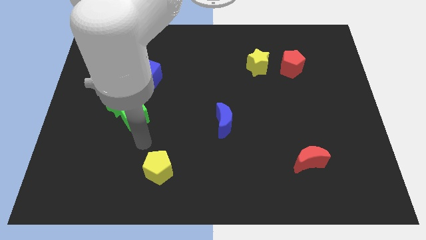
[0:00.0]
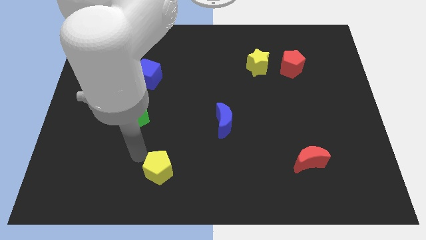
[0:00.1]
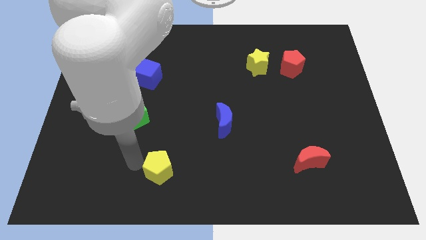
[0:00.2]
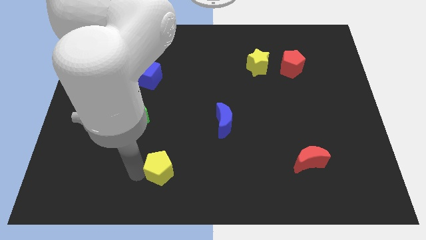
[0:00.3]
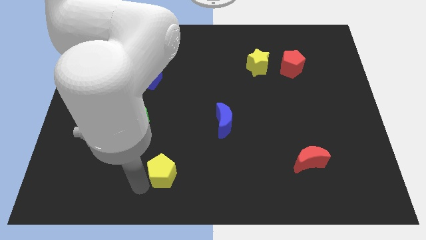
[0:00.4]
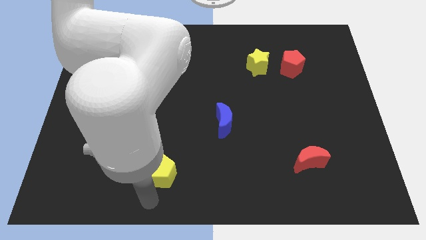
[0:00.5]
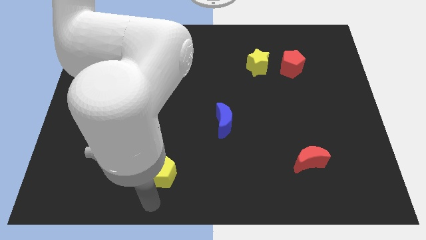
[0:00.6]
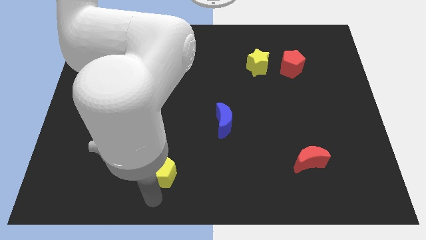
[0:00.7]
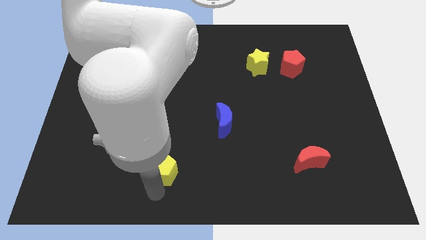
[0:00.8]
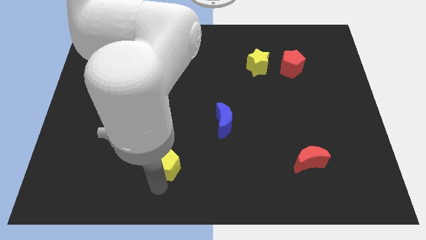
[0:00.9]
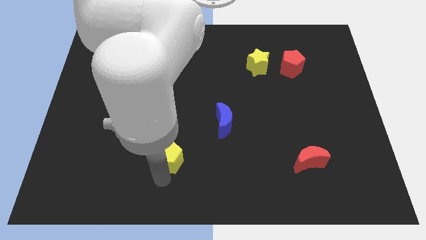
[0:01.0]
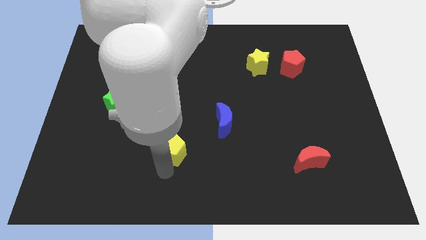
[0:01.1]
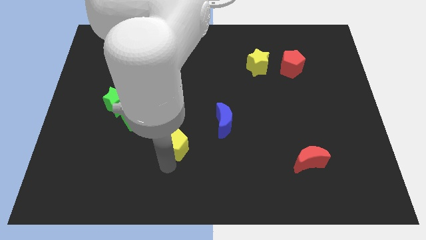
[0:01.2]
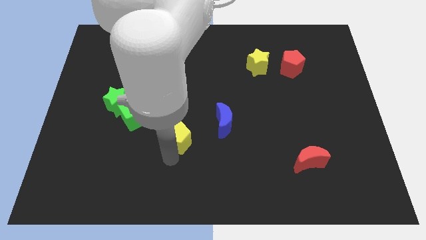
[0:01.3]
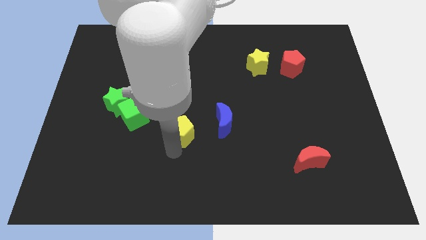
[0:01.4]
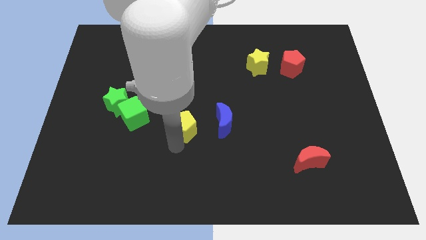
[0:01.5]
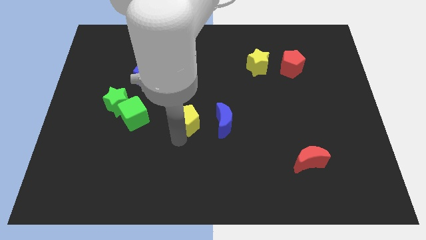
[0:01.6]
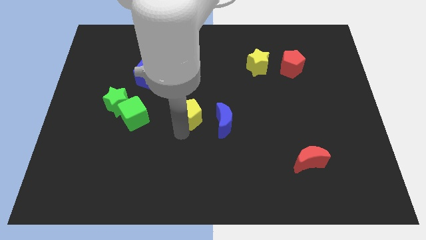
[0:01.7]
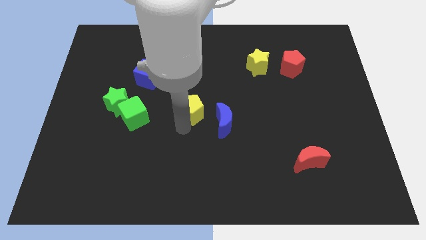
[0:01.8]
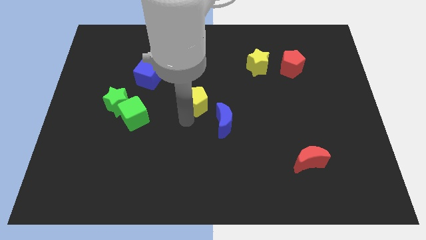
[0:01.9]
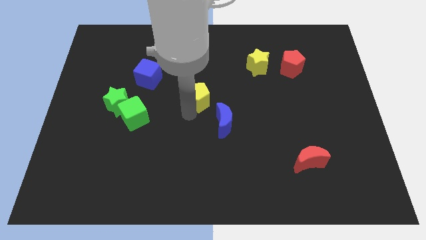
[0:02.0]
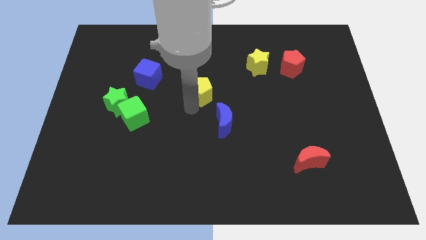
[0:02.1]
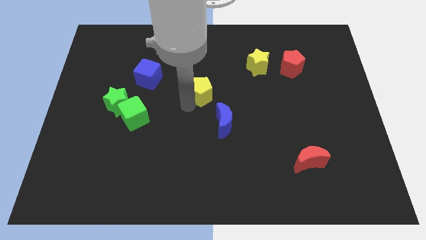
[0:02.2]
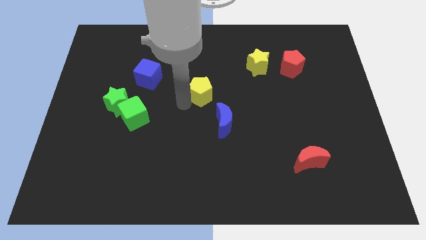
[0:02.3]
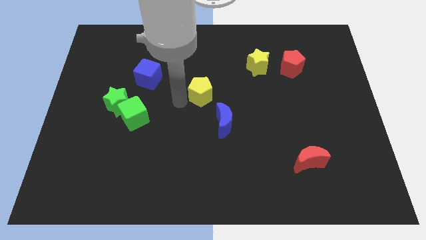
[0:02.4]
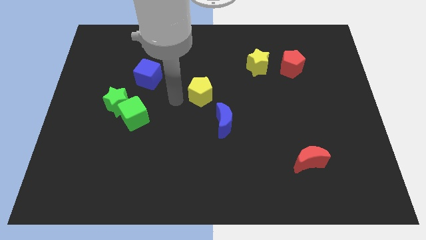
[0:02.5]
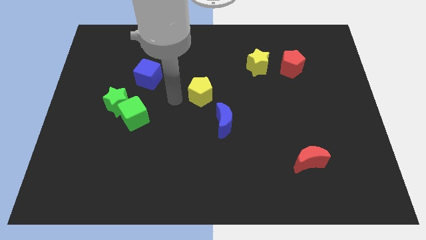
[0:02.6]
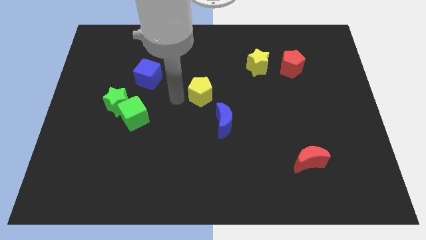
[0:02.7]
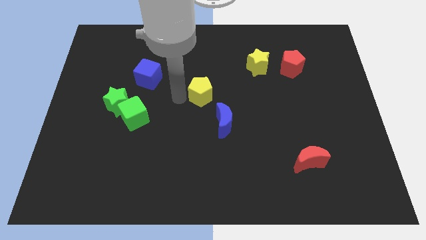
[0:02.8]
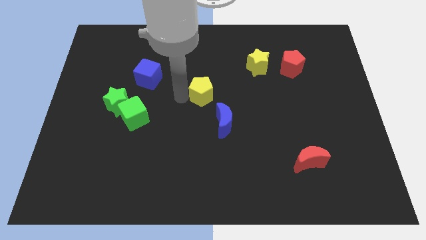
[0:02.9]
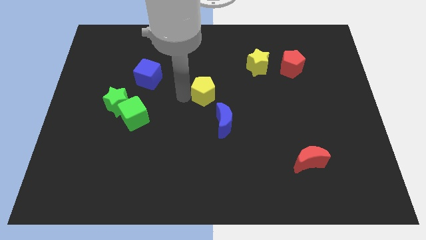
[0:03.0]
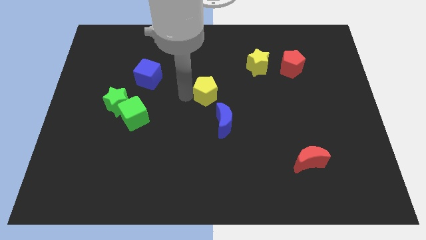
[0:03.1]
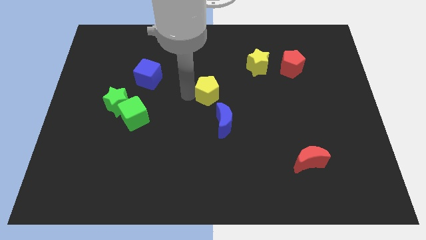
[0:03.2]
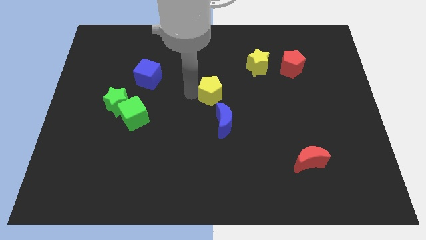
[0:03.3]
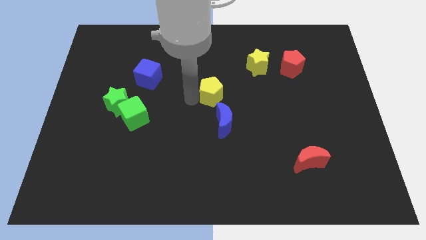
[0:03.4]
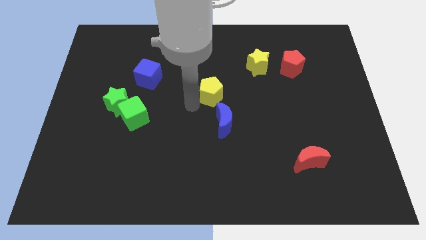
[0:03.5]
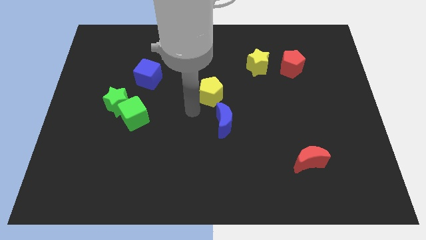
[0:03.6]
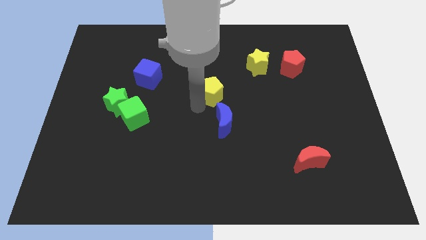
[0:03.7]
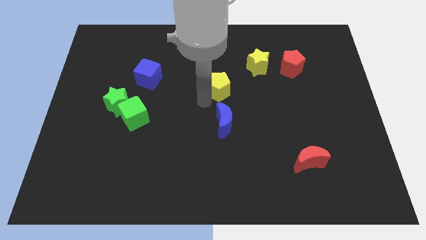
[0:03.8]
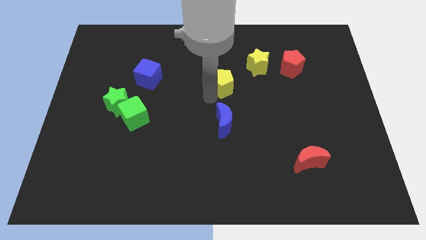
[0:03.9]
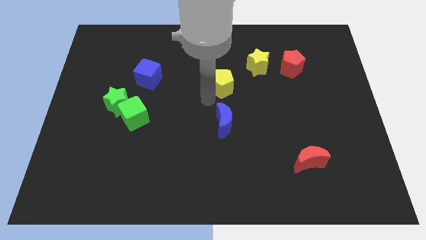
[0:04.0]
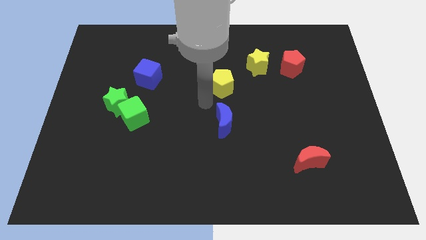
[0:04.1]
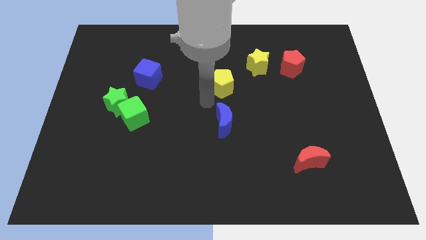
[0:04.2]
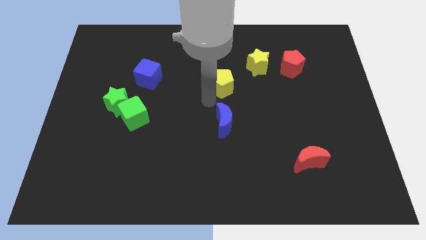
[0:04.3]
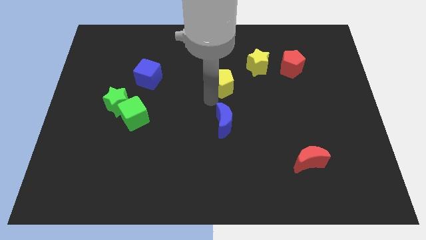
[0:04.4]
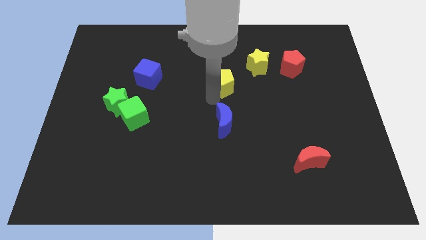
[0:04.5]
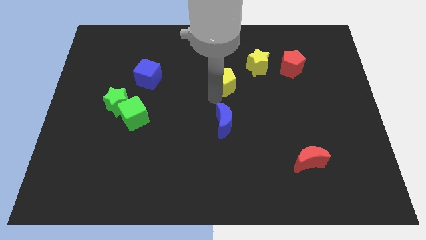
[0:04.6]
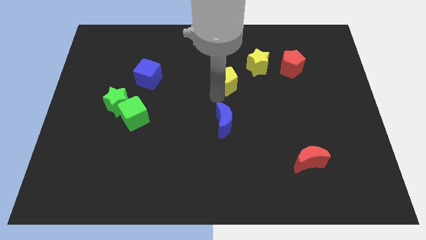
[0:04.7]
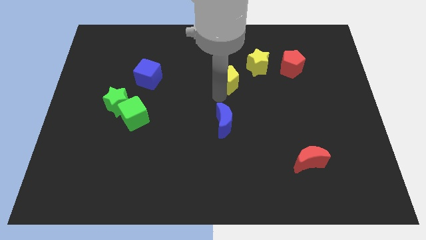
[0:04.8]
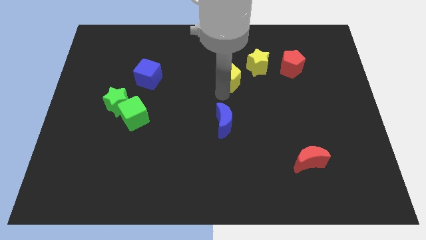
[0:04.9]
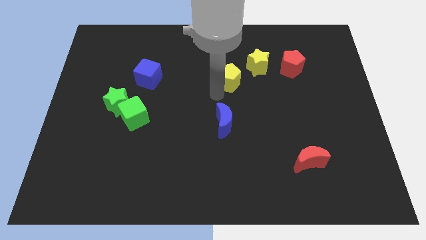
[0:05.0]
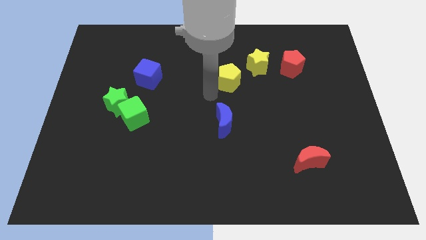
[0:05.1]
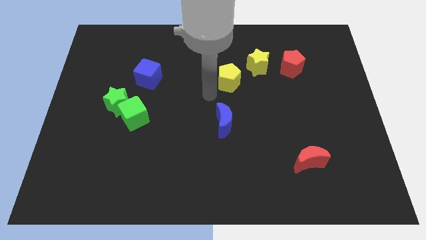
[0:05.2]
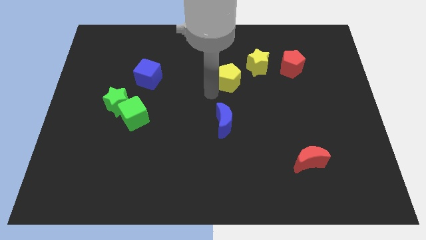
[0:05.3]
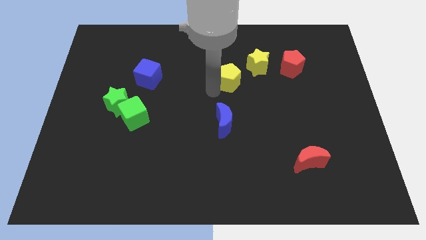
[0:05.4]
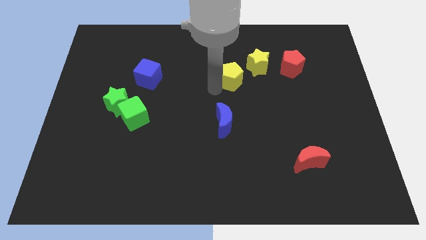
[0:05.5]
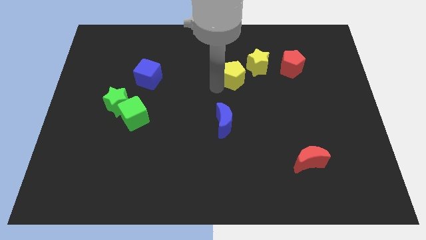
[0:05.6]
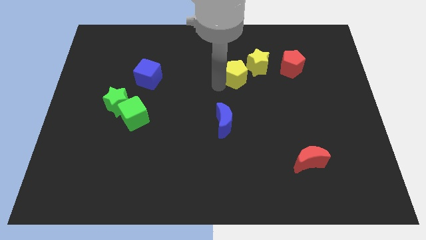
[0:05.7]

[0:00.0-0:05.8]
push the yellow pentagon just left of the red pentagon

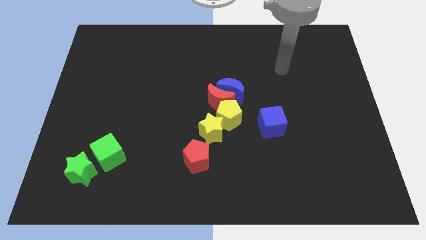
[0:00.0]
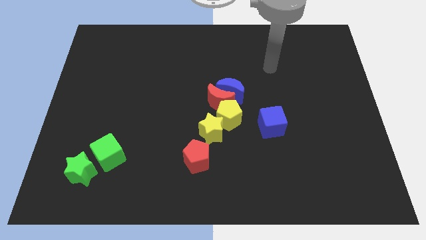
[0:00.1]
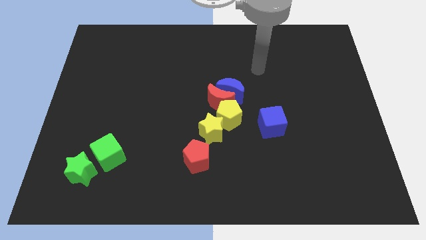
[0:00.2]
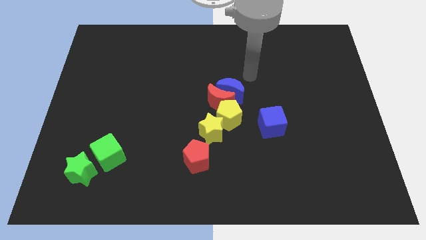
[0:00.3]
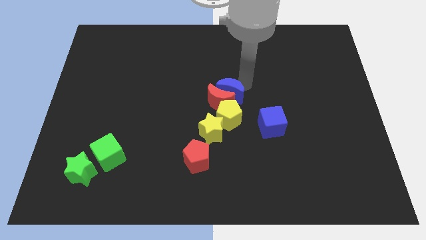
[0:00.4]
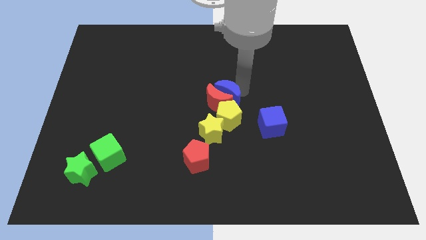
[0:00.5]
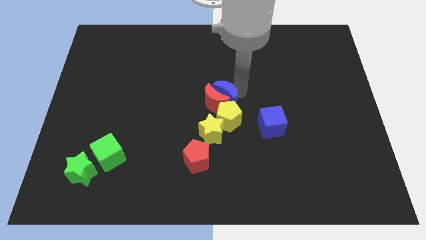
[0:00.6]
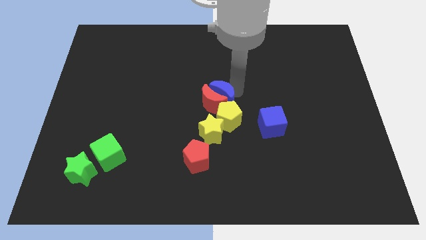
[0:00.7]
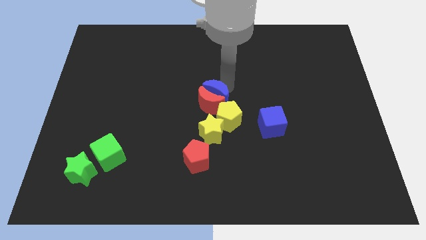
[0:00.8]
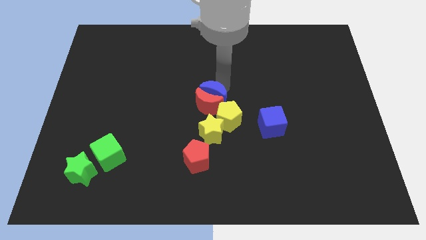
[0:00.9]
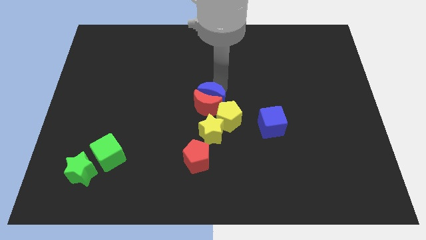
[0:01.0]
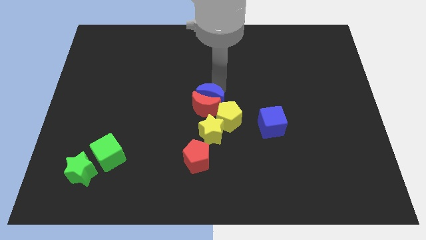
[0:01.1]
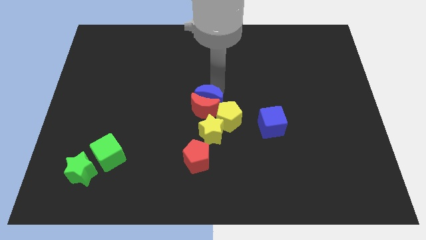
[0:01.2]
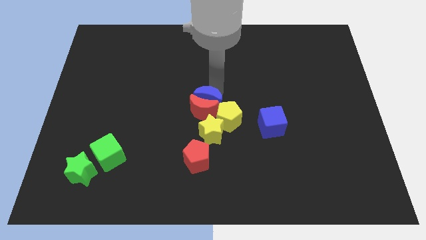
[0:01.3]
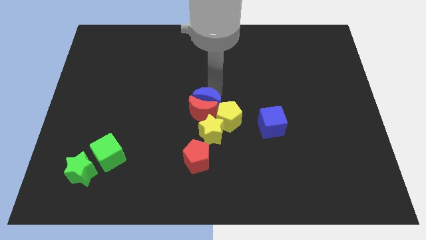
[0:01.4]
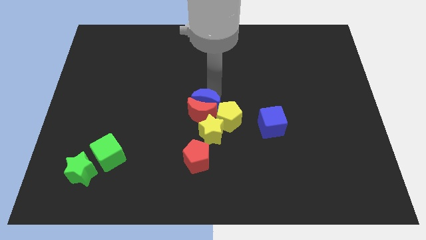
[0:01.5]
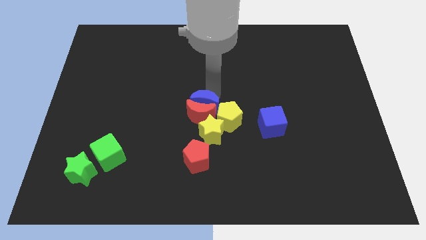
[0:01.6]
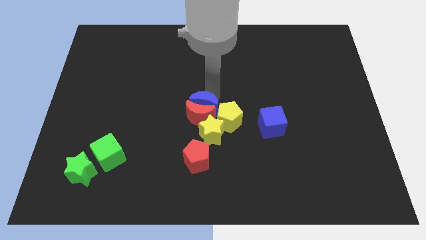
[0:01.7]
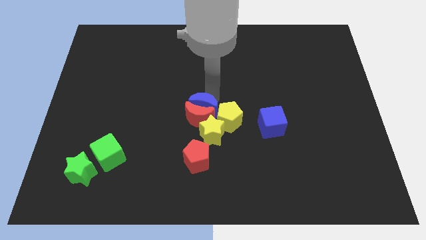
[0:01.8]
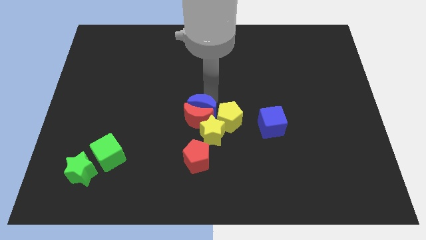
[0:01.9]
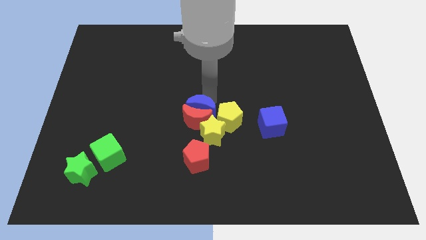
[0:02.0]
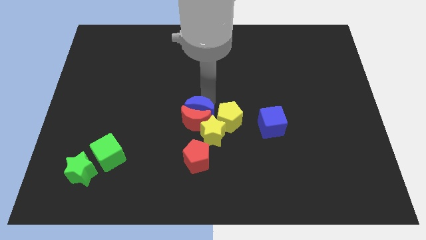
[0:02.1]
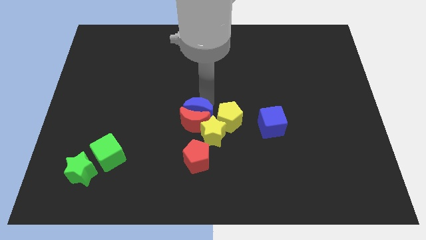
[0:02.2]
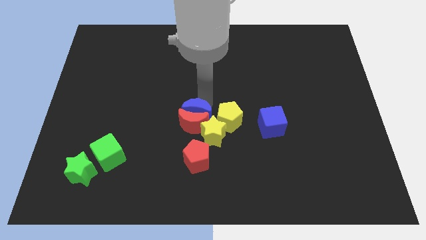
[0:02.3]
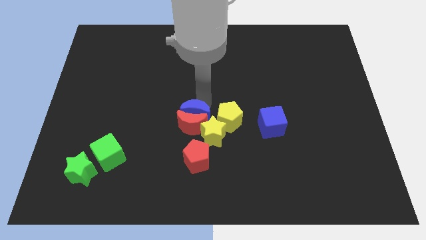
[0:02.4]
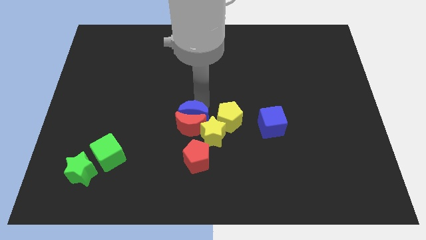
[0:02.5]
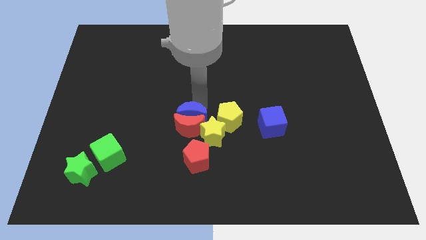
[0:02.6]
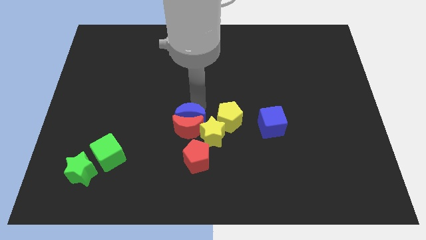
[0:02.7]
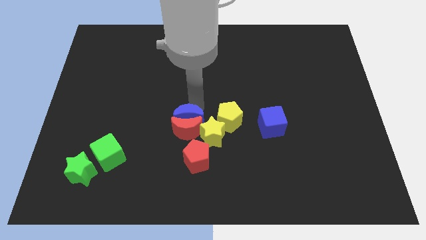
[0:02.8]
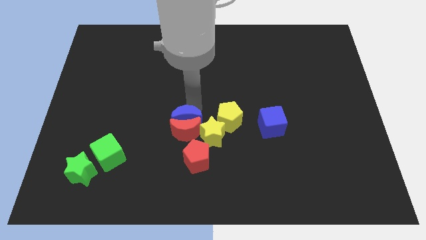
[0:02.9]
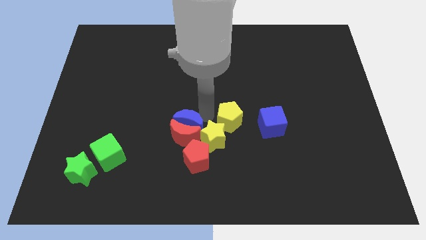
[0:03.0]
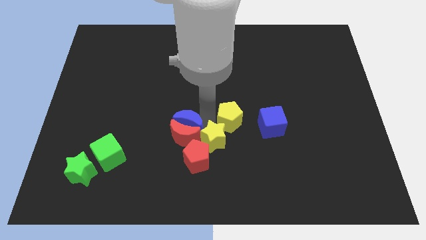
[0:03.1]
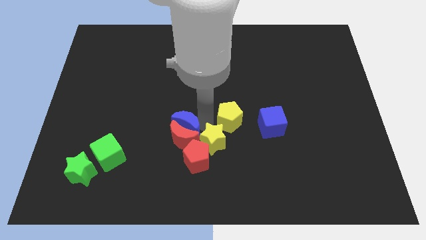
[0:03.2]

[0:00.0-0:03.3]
put the red moon left of the red pentagon
